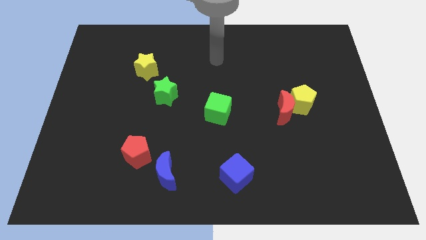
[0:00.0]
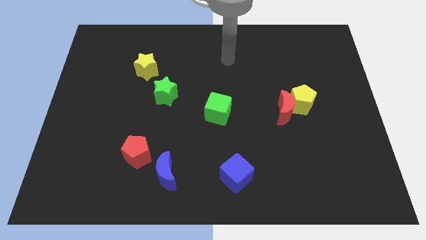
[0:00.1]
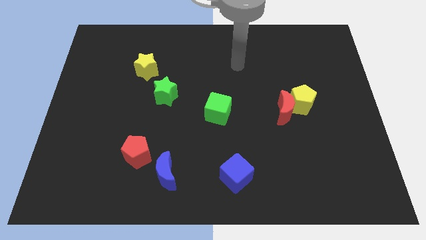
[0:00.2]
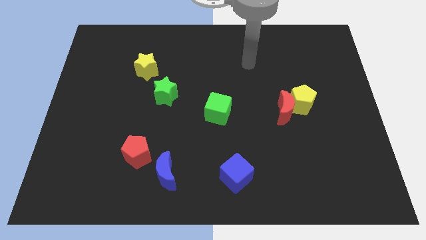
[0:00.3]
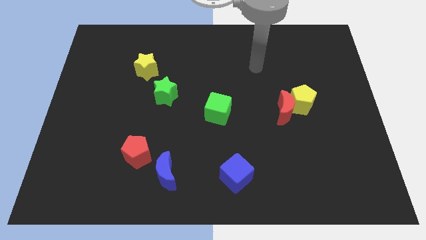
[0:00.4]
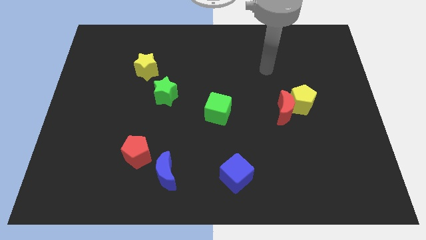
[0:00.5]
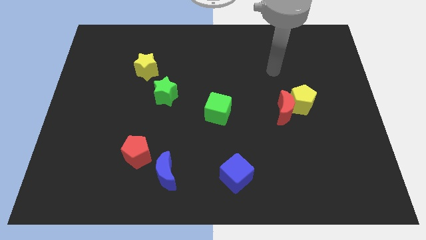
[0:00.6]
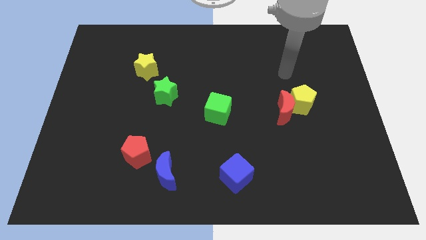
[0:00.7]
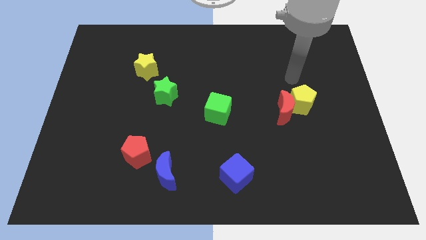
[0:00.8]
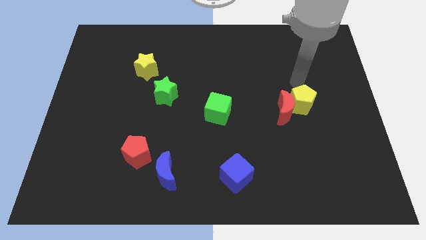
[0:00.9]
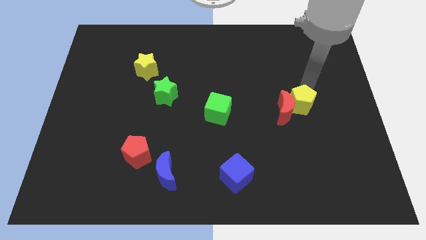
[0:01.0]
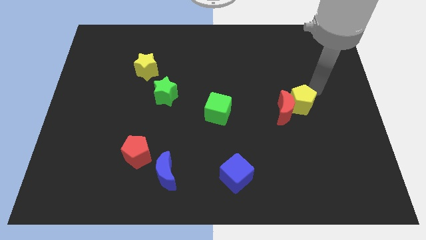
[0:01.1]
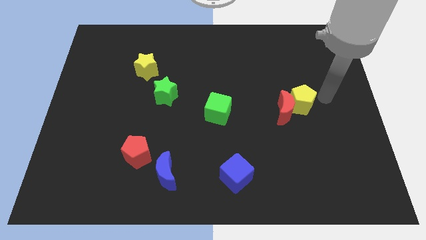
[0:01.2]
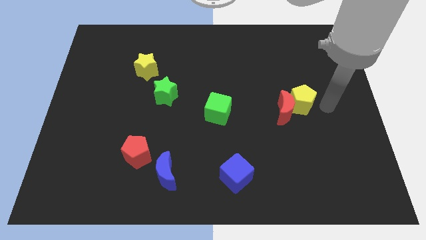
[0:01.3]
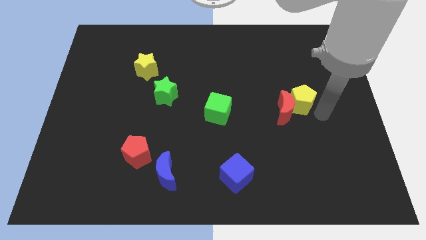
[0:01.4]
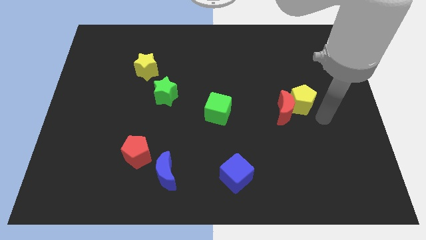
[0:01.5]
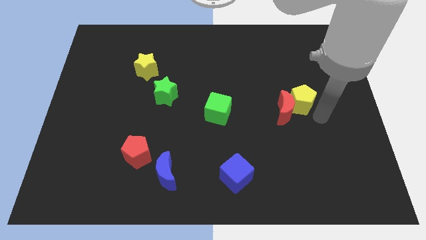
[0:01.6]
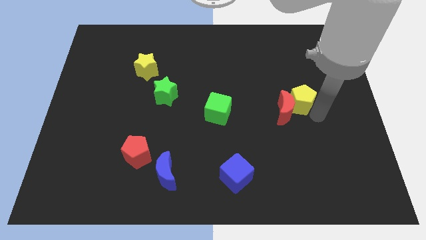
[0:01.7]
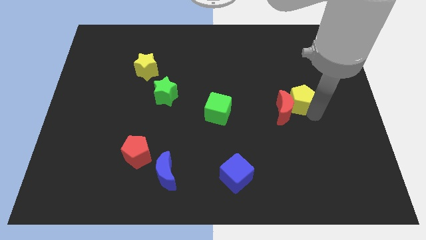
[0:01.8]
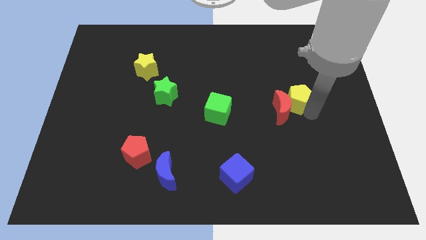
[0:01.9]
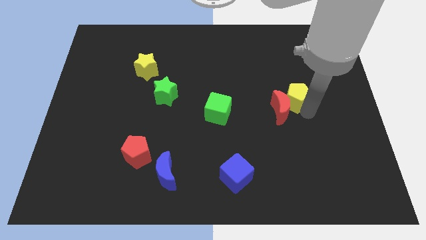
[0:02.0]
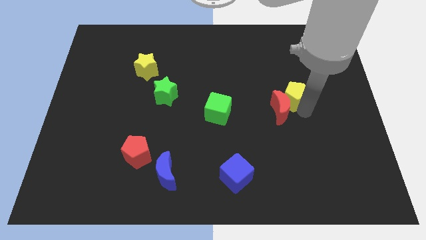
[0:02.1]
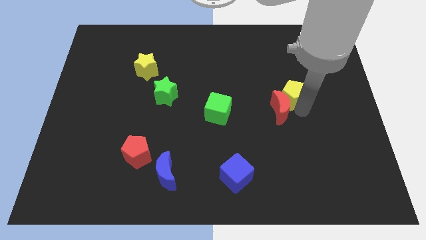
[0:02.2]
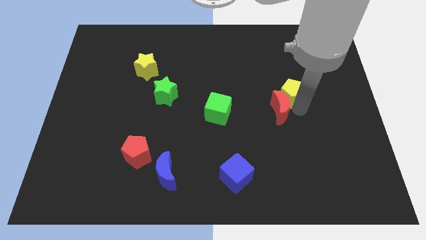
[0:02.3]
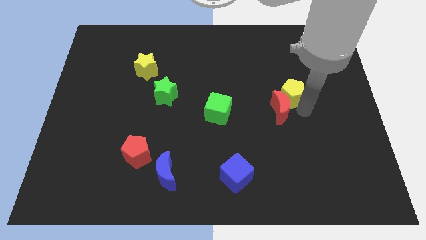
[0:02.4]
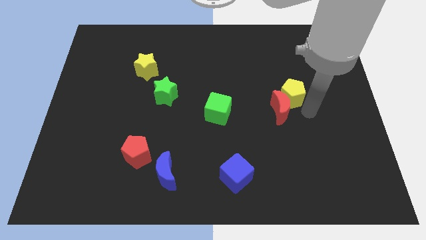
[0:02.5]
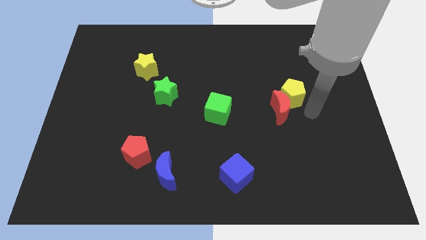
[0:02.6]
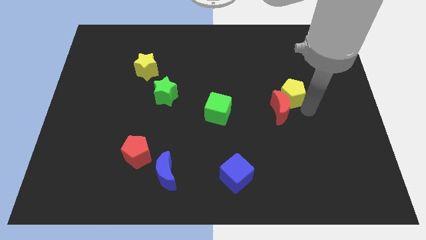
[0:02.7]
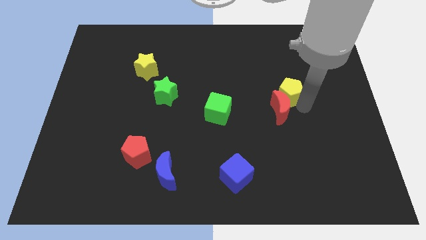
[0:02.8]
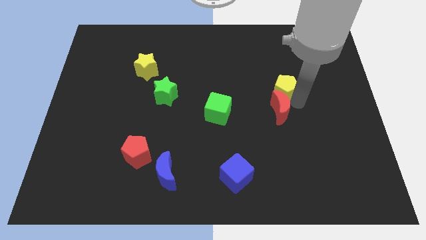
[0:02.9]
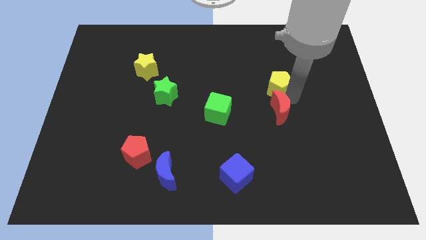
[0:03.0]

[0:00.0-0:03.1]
slide the yellow pentagon diagonally upwards and to the left a little bit

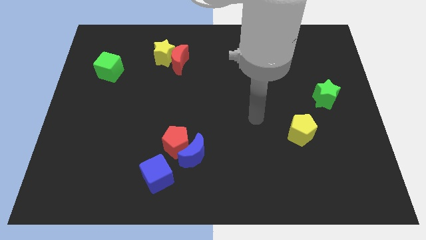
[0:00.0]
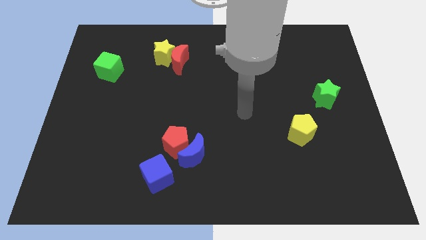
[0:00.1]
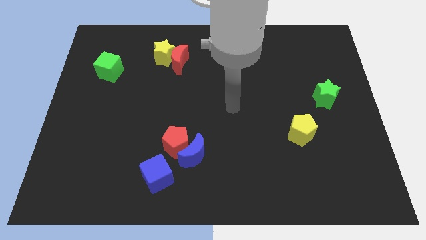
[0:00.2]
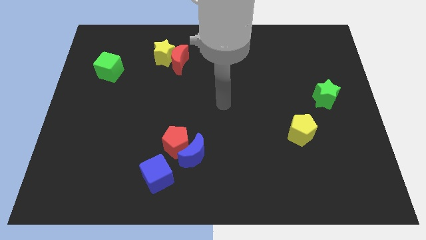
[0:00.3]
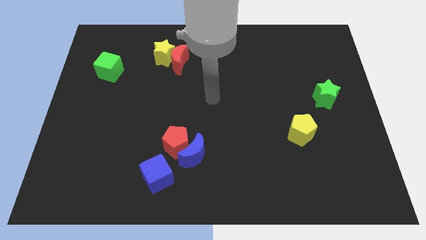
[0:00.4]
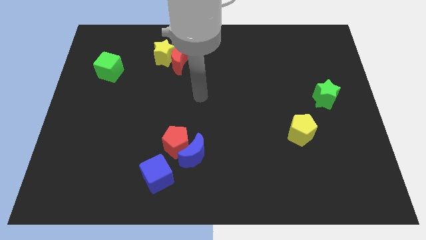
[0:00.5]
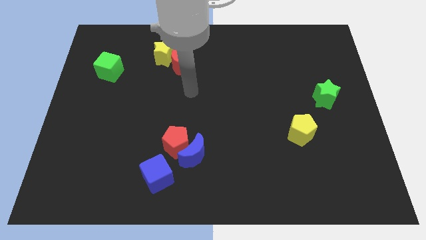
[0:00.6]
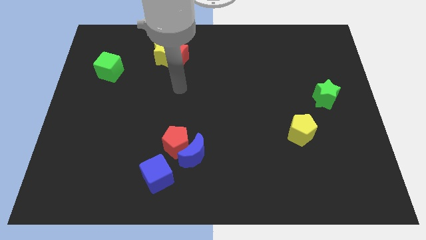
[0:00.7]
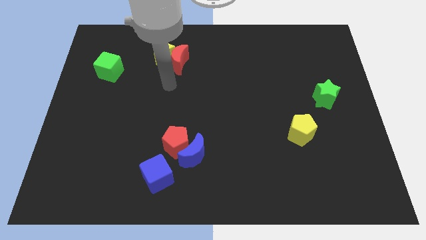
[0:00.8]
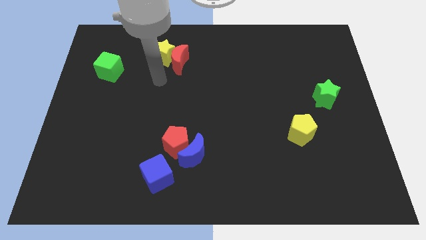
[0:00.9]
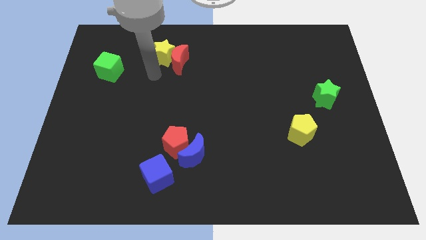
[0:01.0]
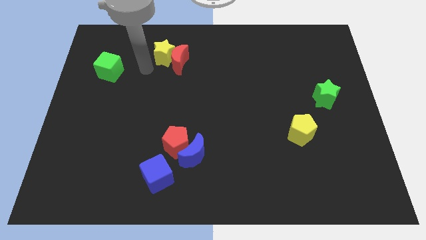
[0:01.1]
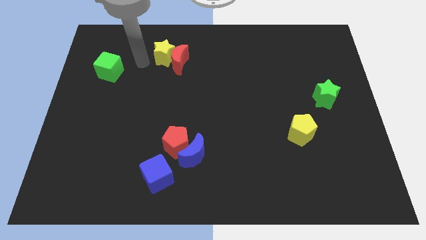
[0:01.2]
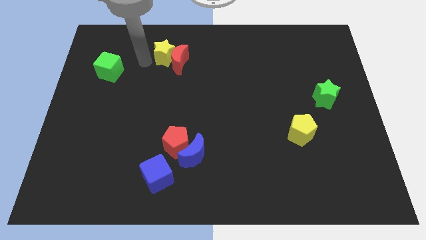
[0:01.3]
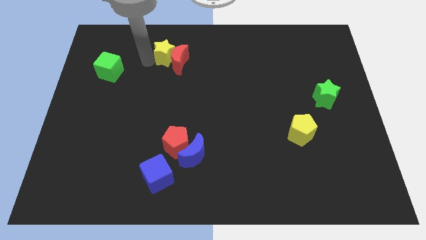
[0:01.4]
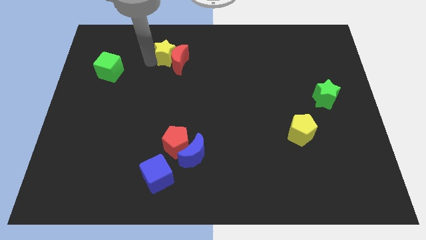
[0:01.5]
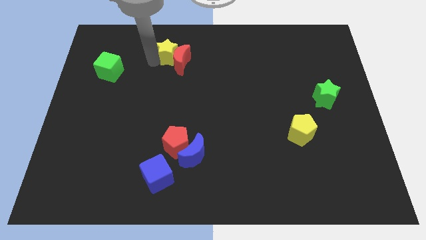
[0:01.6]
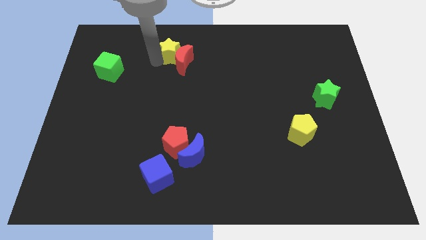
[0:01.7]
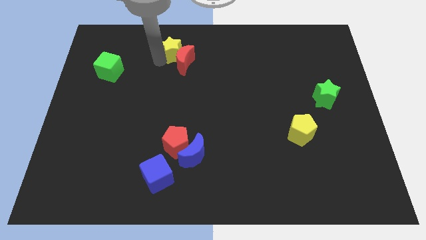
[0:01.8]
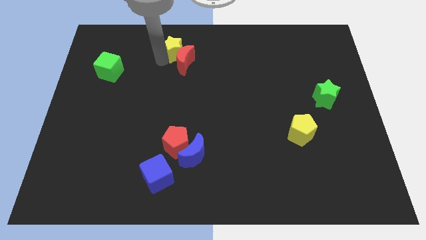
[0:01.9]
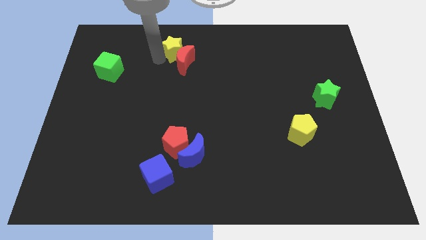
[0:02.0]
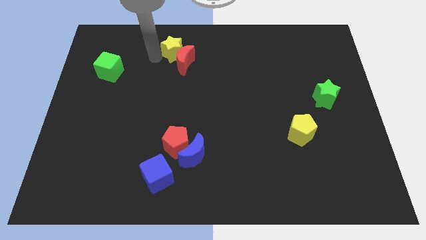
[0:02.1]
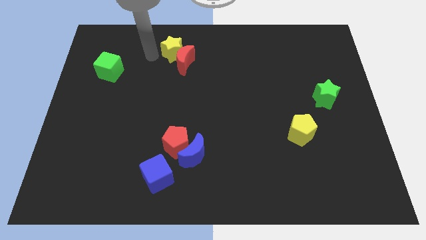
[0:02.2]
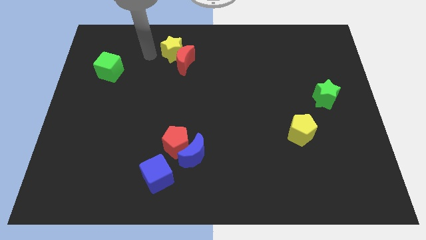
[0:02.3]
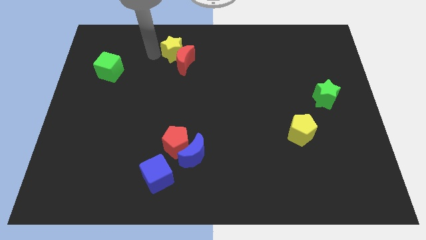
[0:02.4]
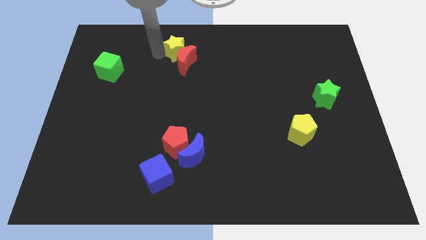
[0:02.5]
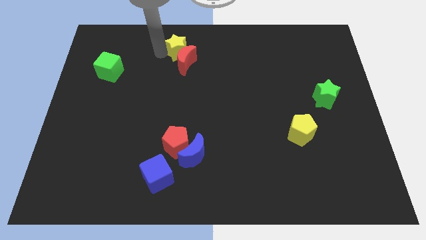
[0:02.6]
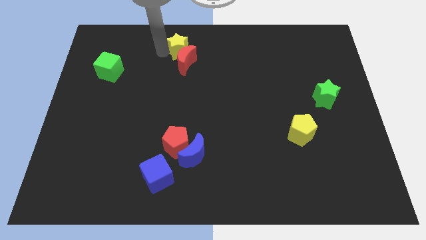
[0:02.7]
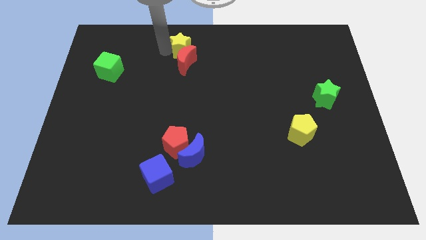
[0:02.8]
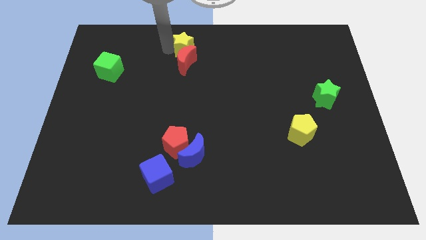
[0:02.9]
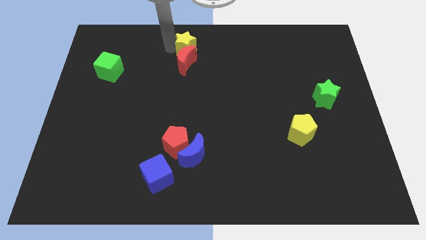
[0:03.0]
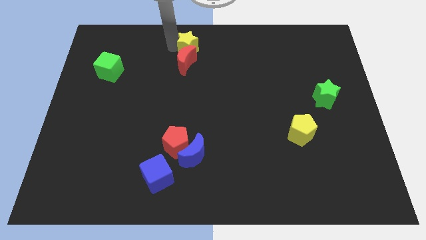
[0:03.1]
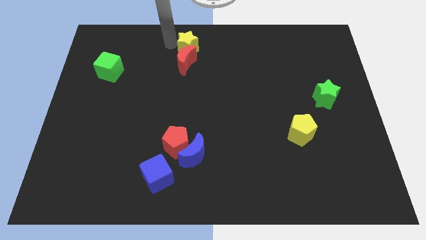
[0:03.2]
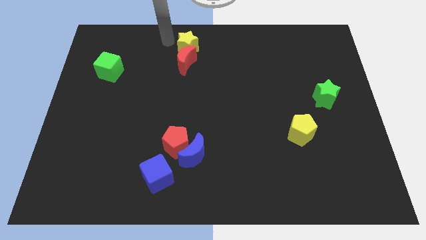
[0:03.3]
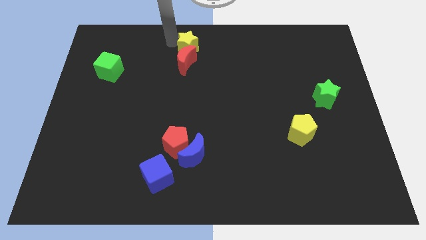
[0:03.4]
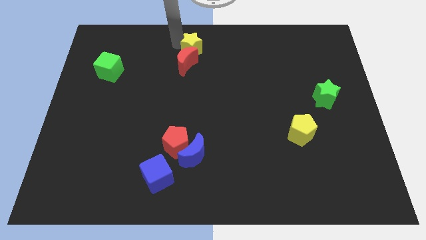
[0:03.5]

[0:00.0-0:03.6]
slightly slide the yellow star right

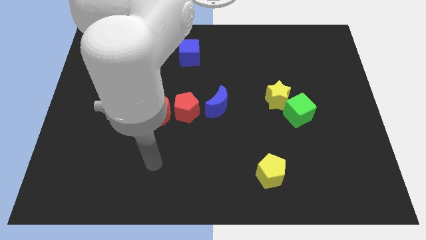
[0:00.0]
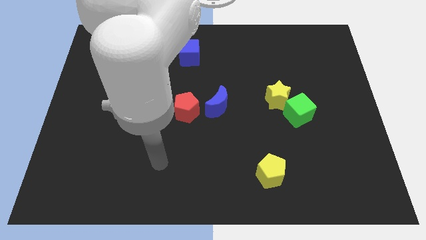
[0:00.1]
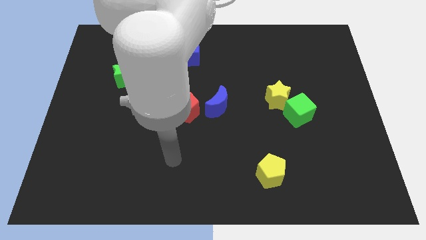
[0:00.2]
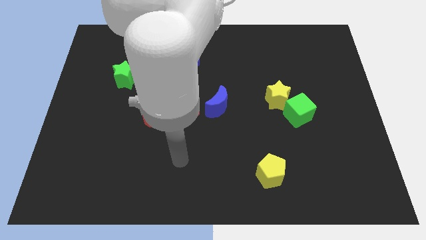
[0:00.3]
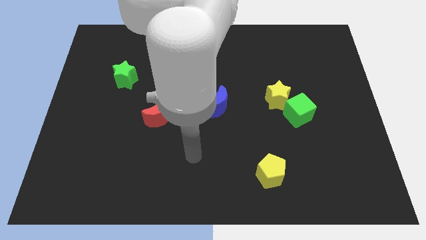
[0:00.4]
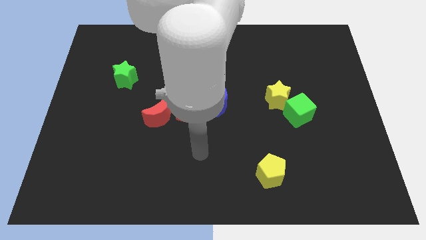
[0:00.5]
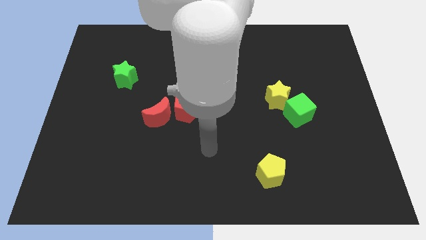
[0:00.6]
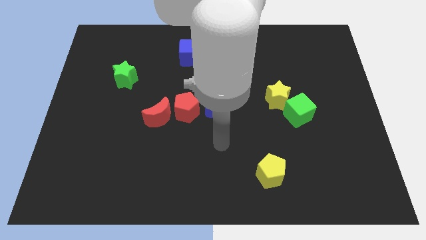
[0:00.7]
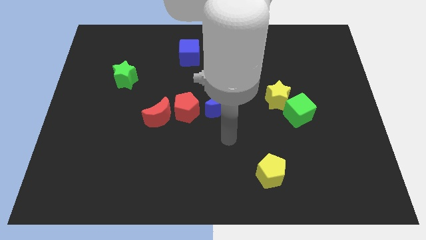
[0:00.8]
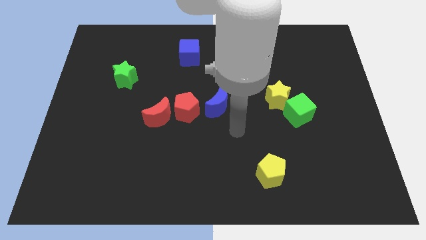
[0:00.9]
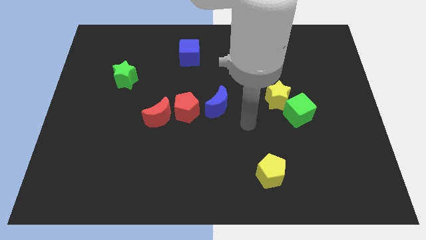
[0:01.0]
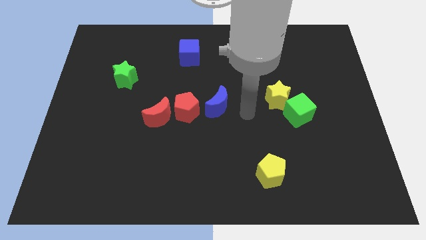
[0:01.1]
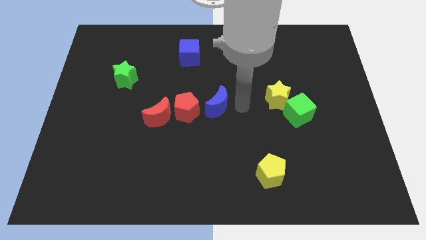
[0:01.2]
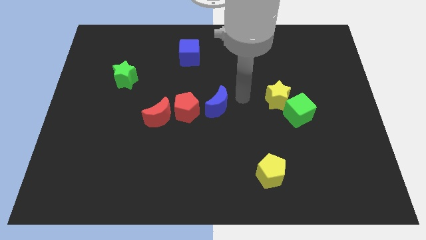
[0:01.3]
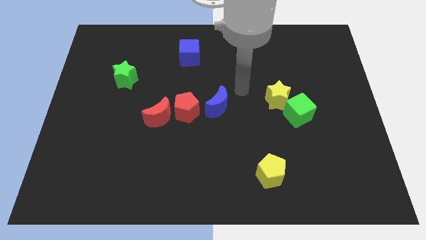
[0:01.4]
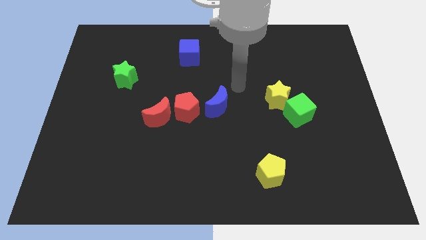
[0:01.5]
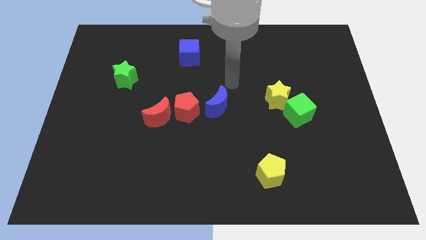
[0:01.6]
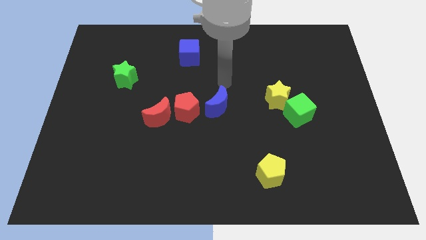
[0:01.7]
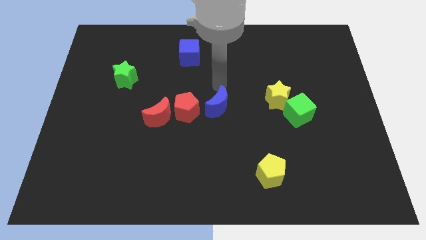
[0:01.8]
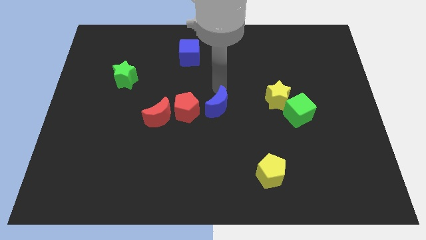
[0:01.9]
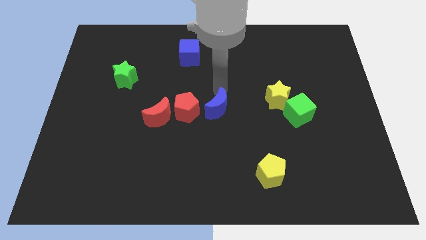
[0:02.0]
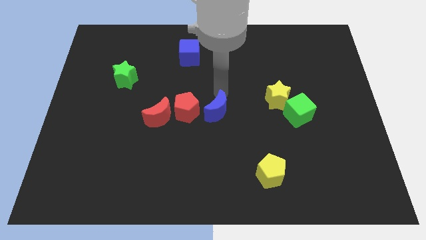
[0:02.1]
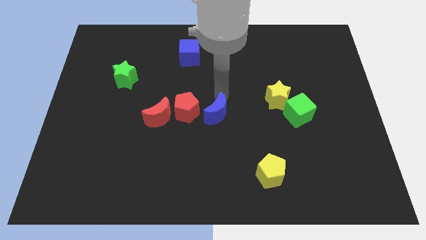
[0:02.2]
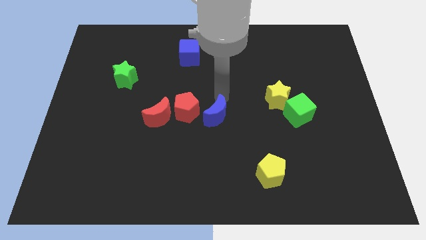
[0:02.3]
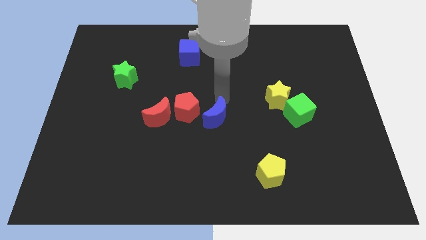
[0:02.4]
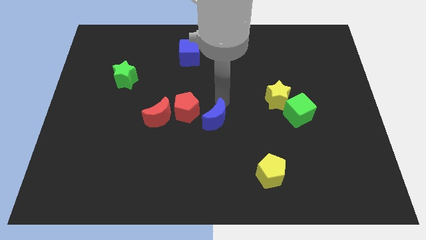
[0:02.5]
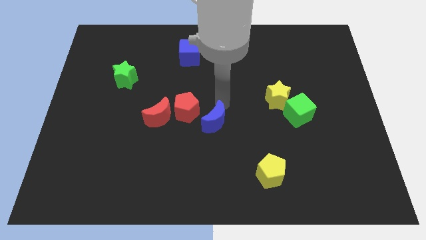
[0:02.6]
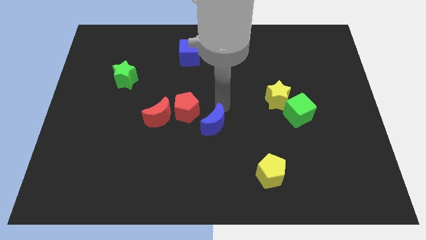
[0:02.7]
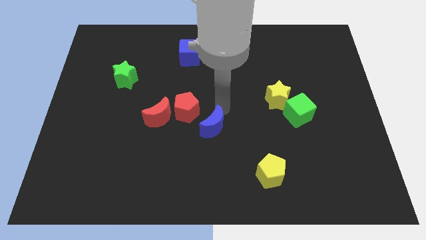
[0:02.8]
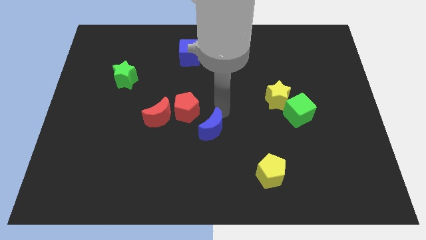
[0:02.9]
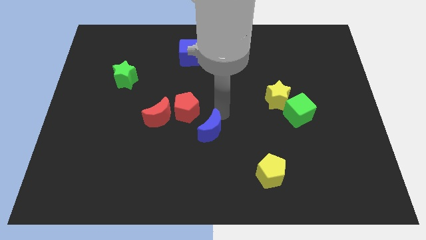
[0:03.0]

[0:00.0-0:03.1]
push the blue moon down slightly
